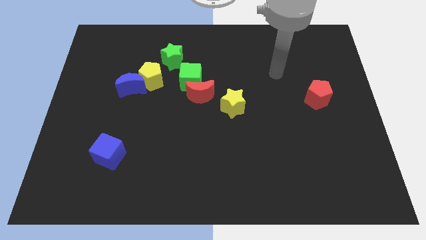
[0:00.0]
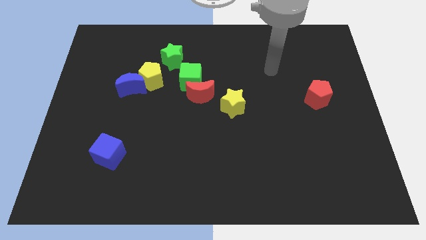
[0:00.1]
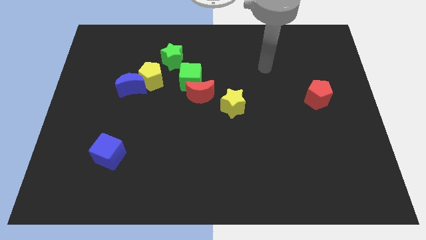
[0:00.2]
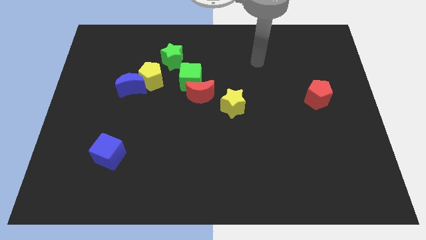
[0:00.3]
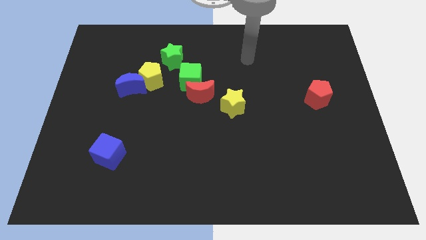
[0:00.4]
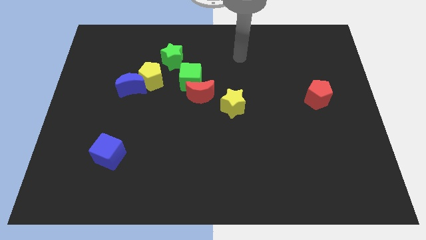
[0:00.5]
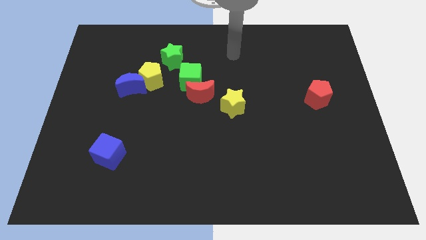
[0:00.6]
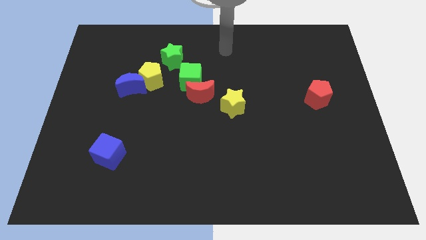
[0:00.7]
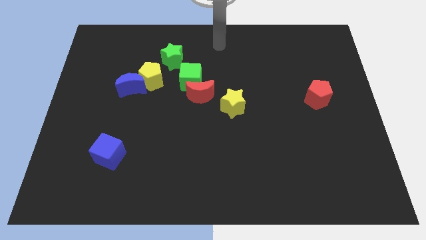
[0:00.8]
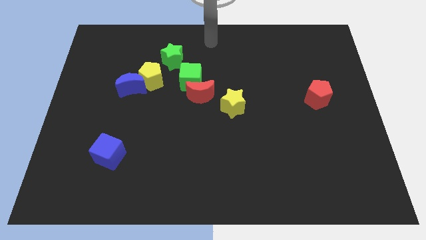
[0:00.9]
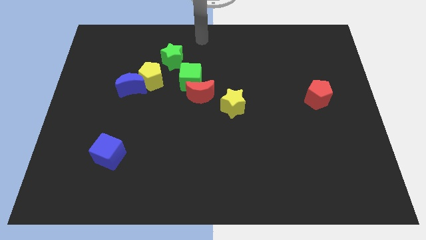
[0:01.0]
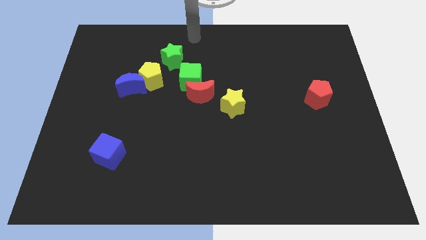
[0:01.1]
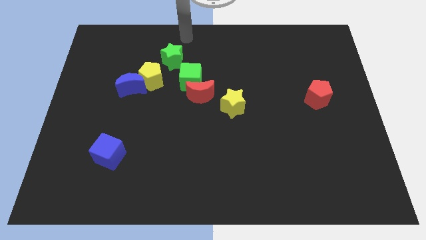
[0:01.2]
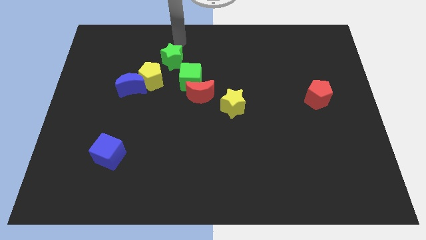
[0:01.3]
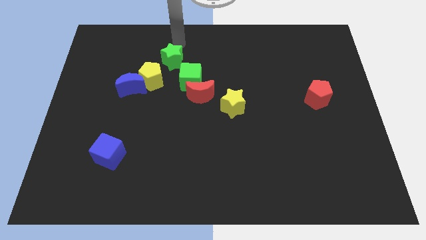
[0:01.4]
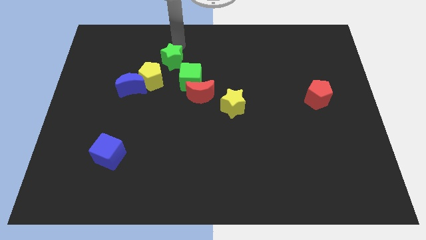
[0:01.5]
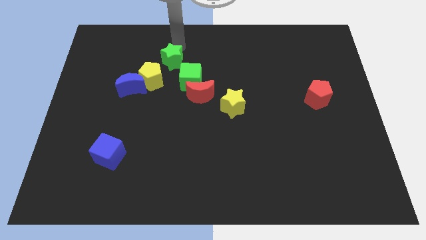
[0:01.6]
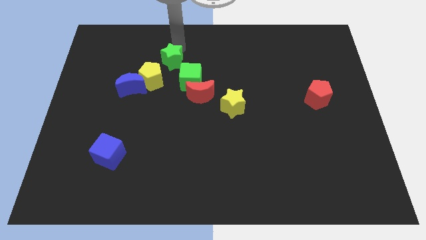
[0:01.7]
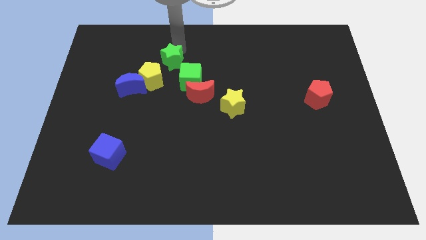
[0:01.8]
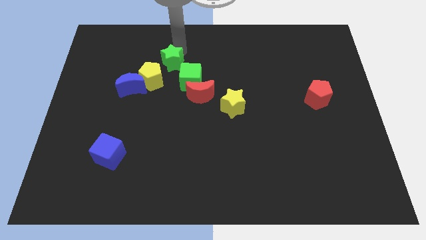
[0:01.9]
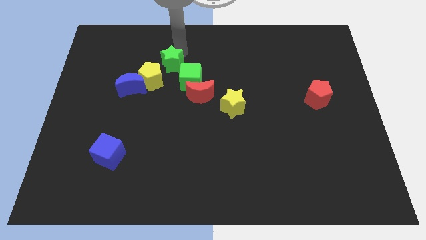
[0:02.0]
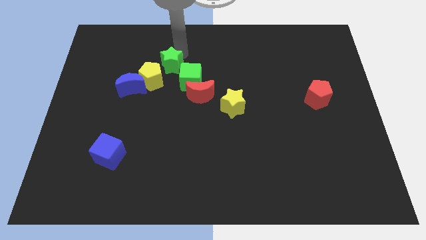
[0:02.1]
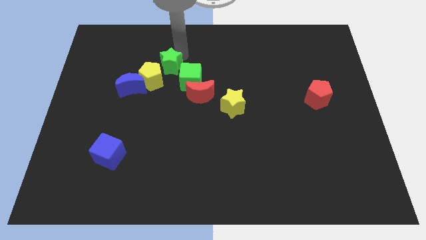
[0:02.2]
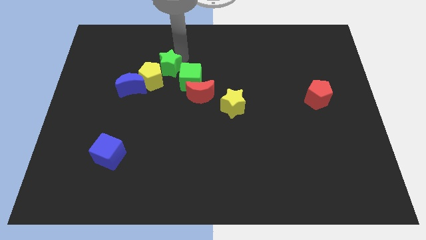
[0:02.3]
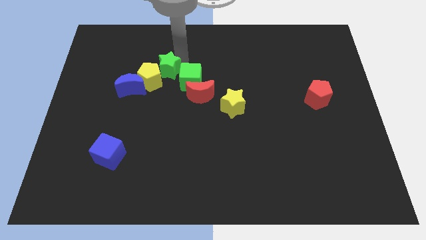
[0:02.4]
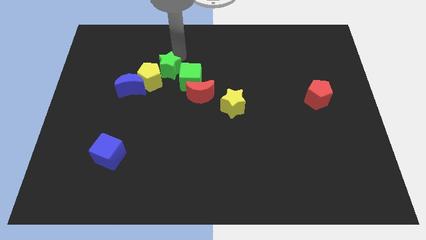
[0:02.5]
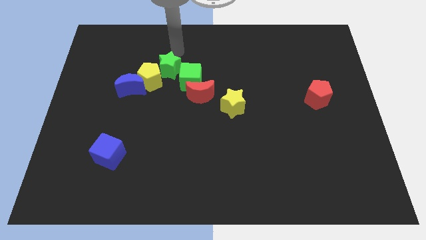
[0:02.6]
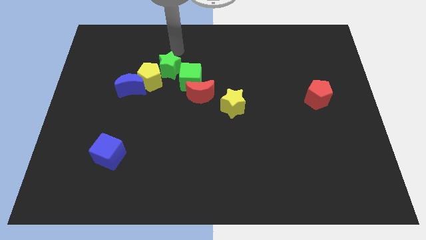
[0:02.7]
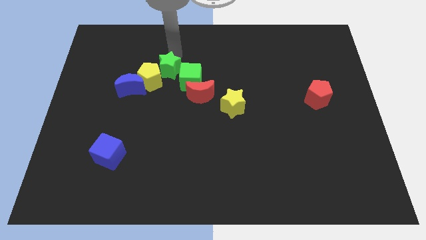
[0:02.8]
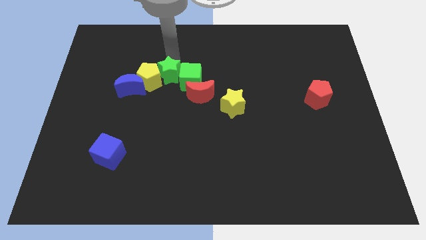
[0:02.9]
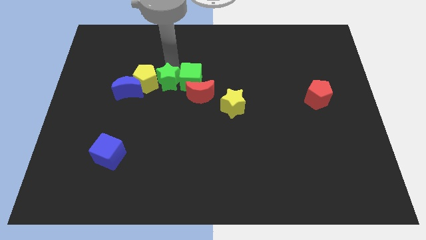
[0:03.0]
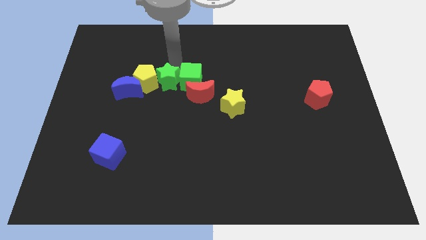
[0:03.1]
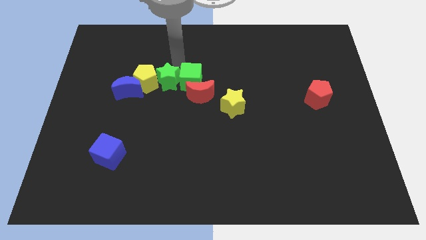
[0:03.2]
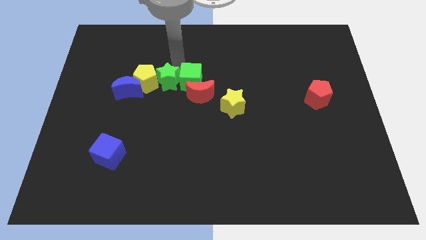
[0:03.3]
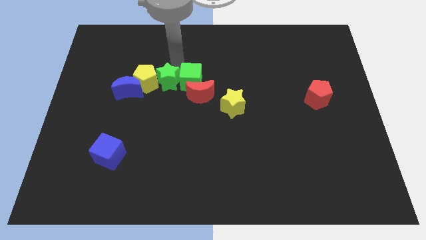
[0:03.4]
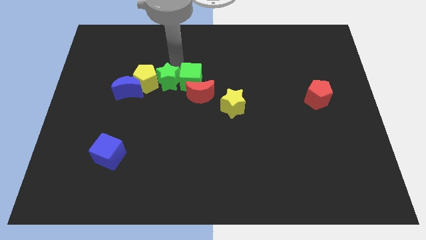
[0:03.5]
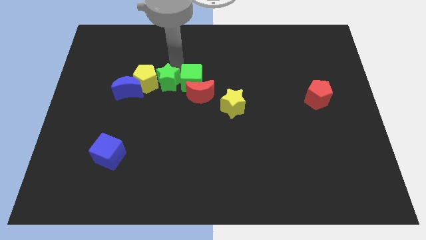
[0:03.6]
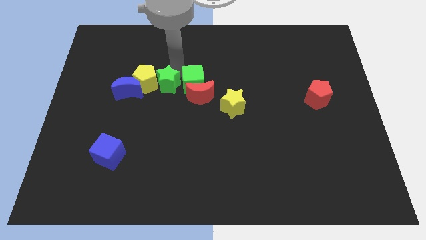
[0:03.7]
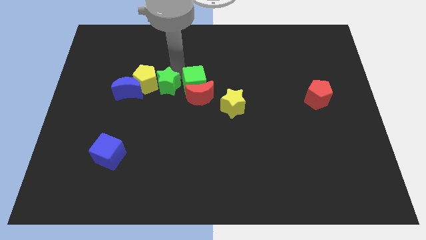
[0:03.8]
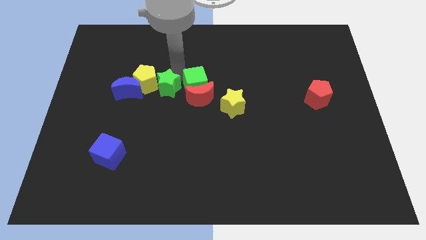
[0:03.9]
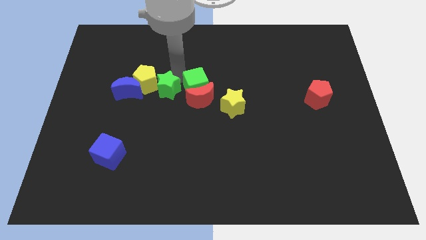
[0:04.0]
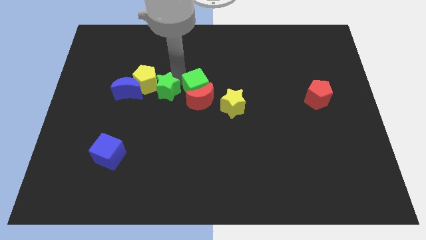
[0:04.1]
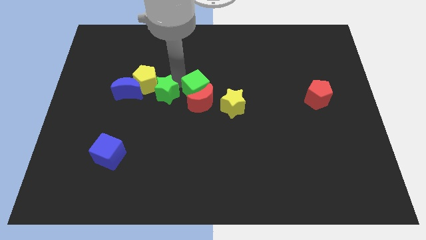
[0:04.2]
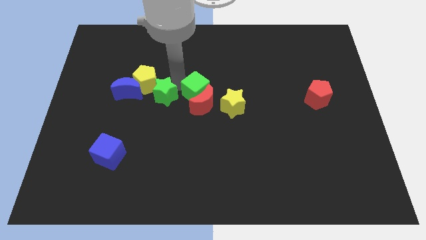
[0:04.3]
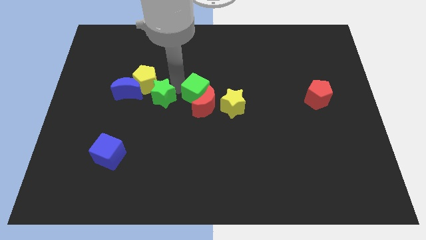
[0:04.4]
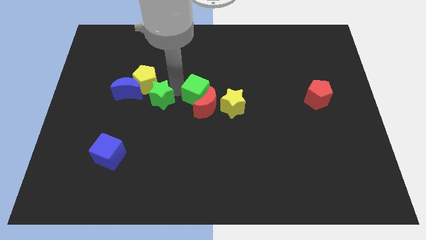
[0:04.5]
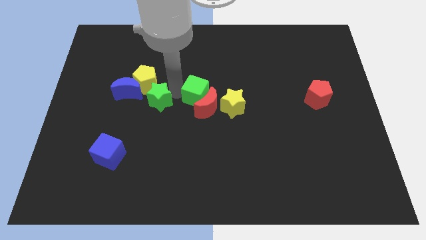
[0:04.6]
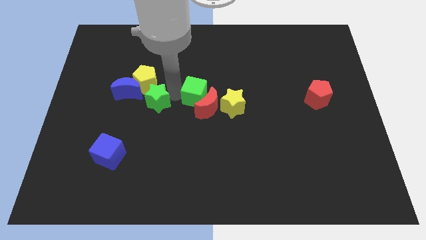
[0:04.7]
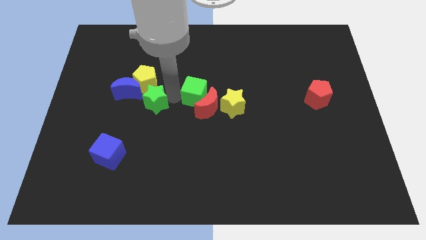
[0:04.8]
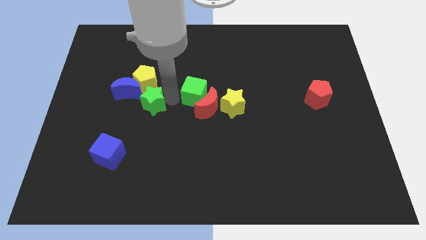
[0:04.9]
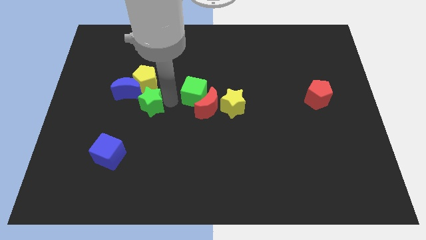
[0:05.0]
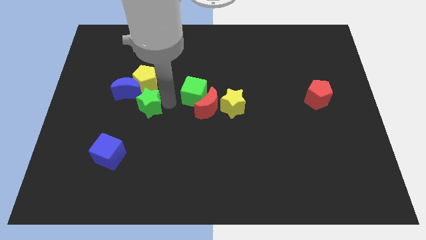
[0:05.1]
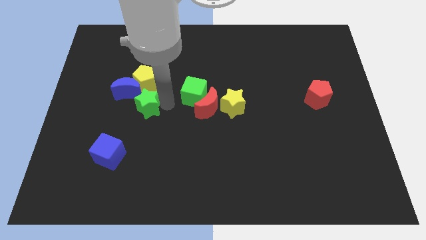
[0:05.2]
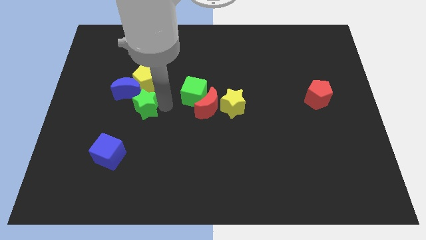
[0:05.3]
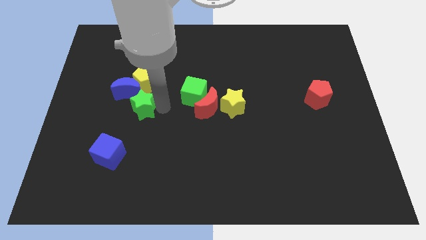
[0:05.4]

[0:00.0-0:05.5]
push the green star to the bottom side of the blue moon
